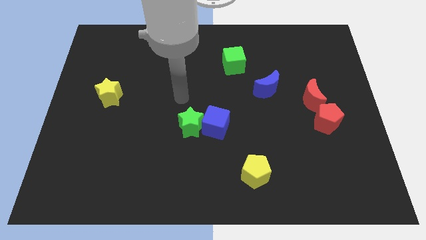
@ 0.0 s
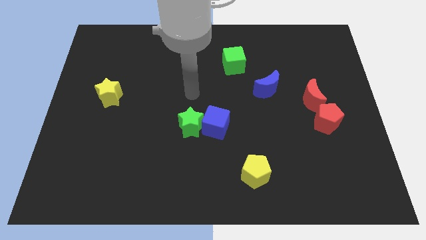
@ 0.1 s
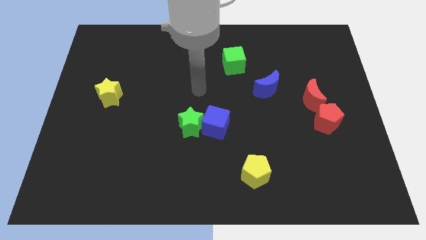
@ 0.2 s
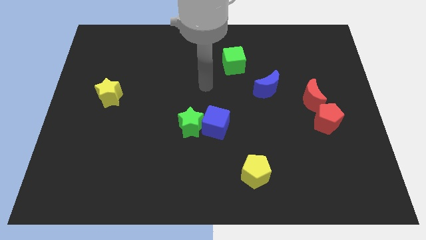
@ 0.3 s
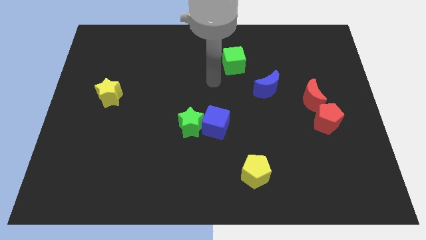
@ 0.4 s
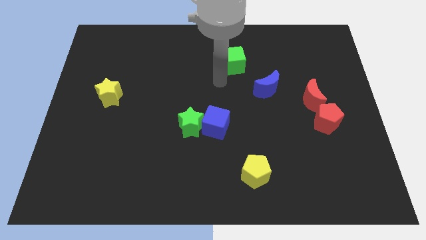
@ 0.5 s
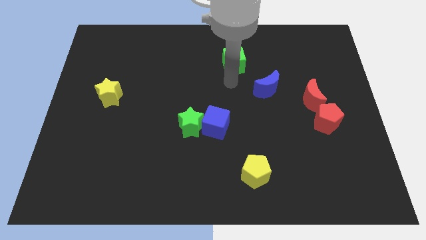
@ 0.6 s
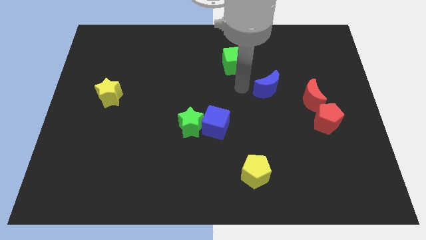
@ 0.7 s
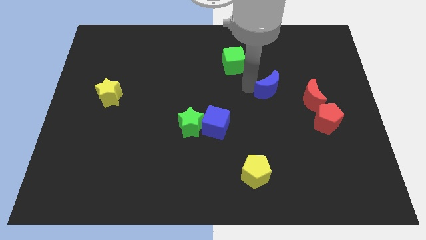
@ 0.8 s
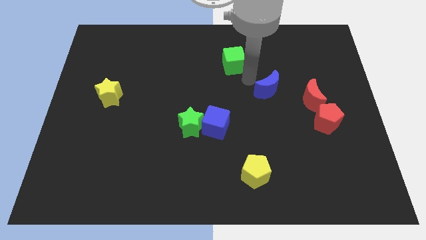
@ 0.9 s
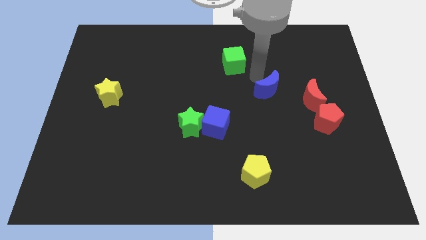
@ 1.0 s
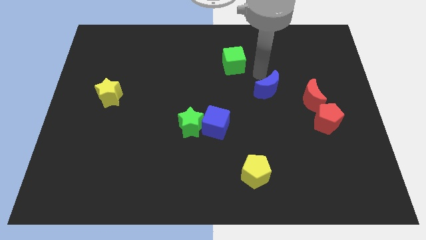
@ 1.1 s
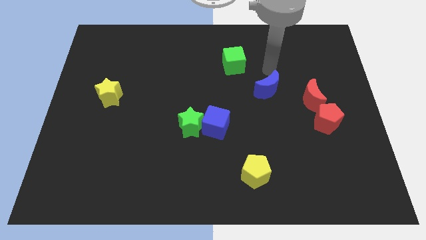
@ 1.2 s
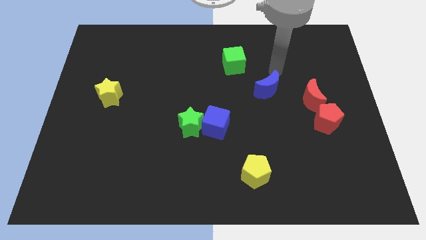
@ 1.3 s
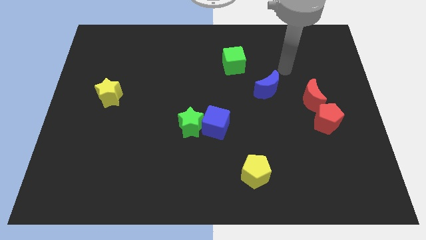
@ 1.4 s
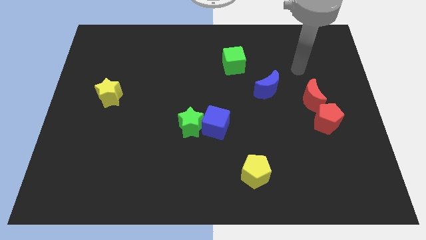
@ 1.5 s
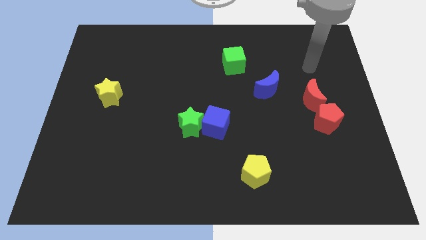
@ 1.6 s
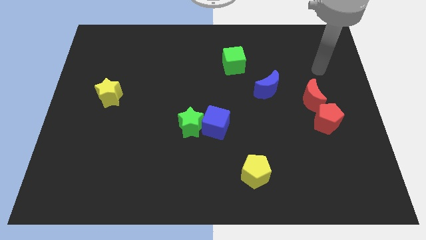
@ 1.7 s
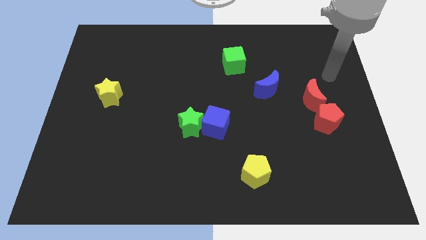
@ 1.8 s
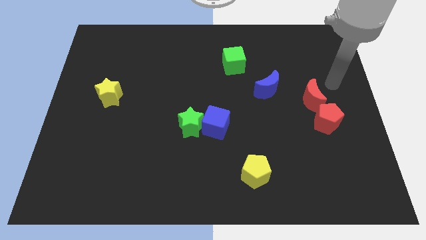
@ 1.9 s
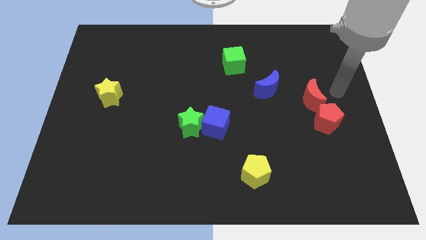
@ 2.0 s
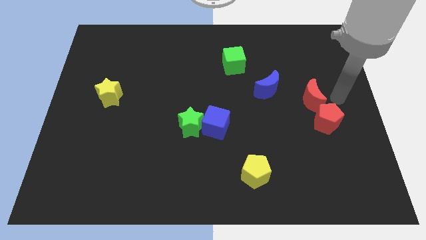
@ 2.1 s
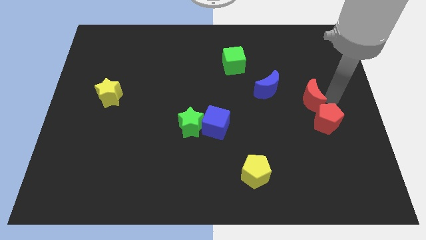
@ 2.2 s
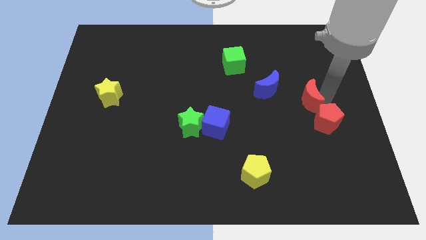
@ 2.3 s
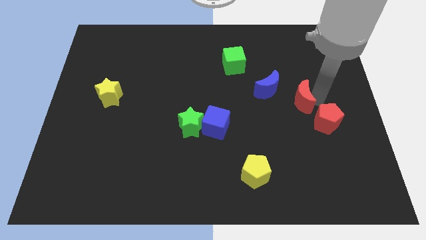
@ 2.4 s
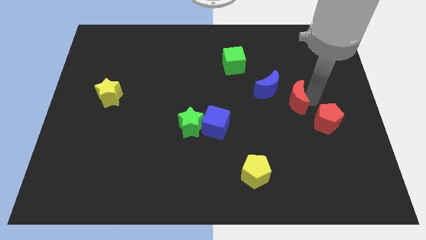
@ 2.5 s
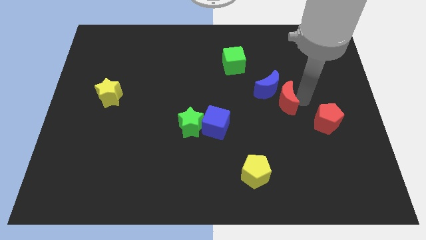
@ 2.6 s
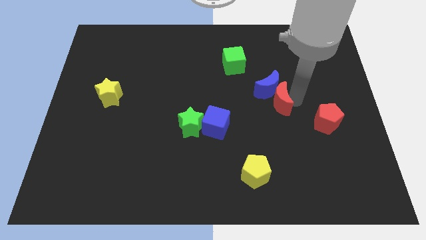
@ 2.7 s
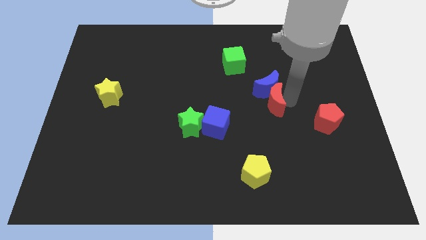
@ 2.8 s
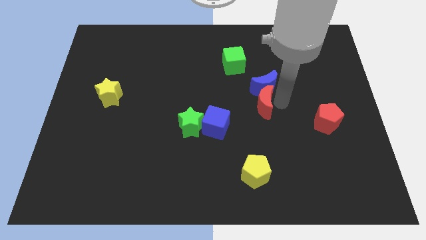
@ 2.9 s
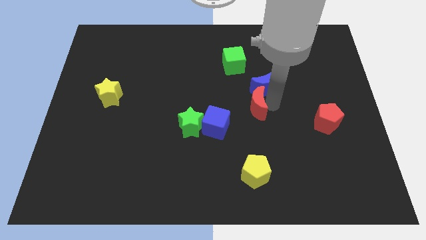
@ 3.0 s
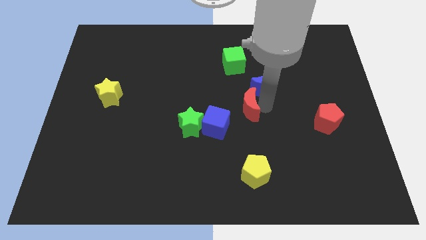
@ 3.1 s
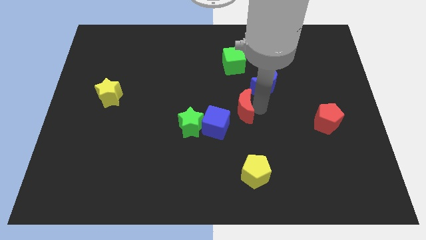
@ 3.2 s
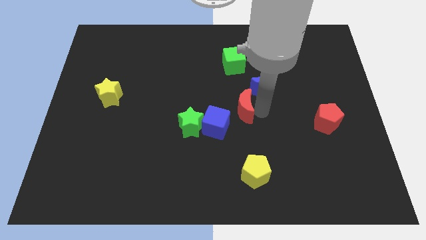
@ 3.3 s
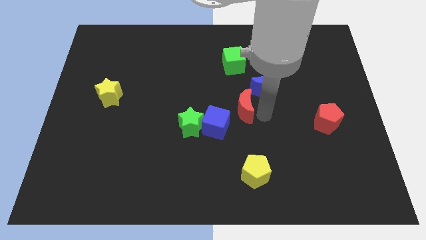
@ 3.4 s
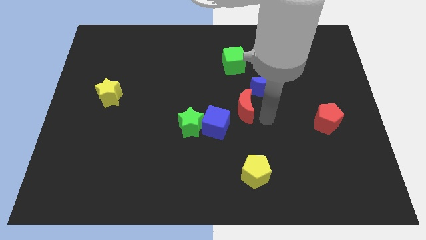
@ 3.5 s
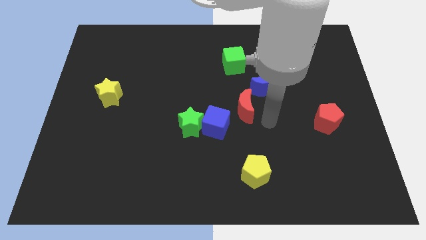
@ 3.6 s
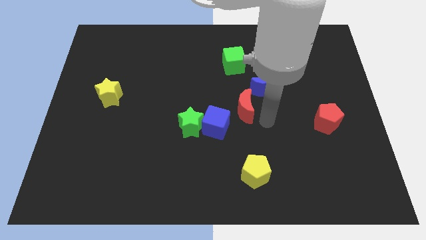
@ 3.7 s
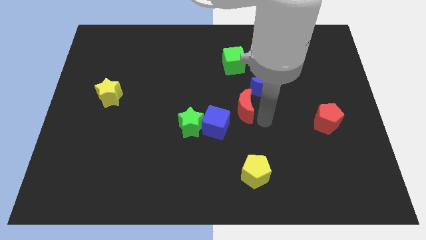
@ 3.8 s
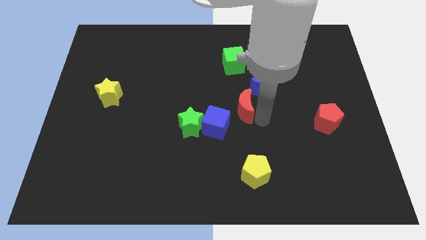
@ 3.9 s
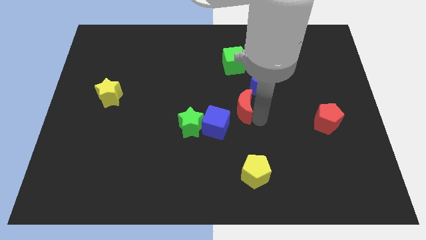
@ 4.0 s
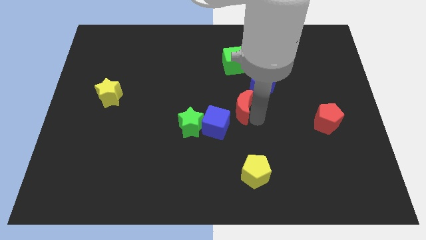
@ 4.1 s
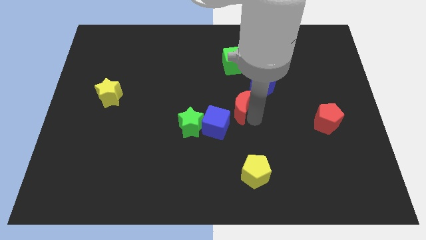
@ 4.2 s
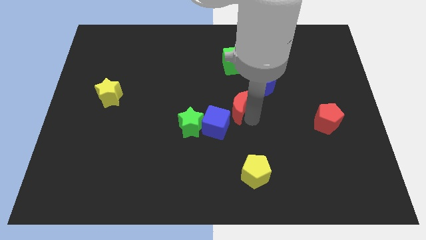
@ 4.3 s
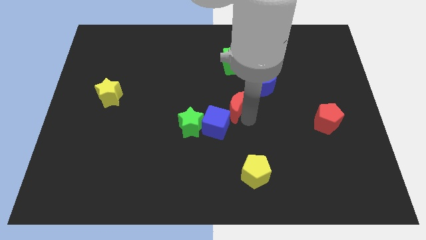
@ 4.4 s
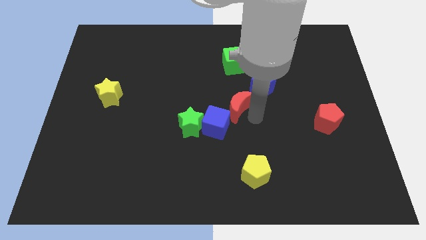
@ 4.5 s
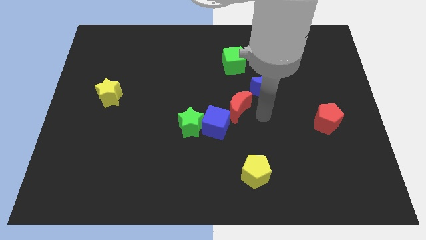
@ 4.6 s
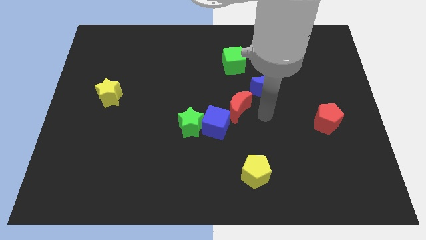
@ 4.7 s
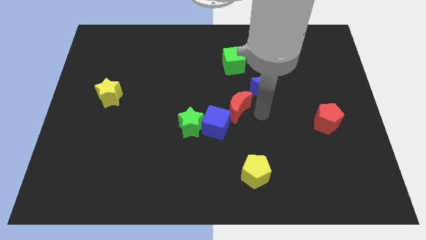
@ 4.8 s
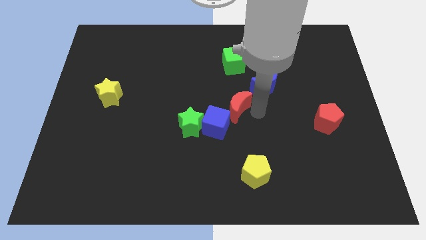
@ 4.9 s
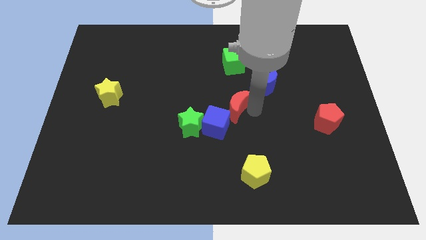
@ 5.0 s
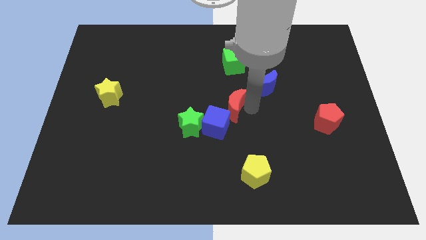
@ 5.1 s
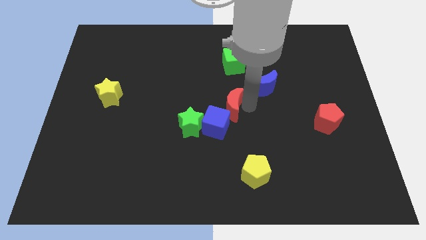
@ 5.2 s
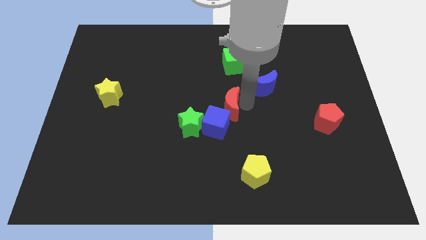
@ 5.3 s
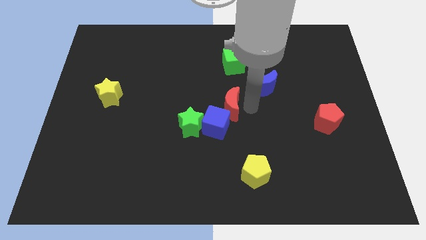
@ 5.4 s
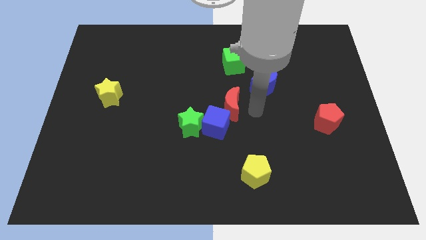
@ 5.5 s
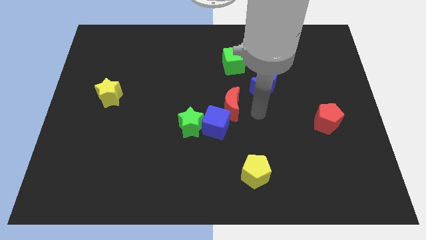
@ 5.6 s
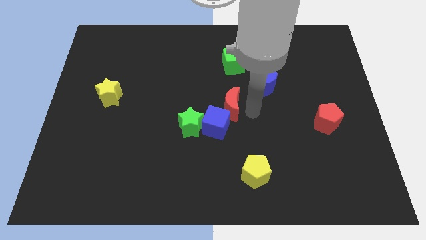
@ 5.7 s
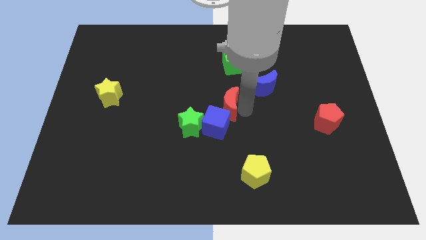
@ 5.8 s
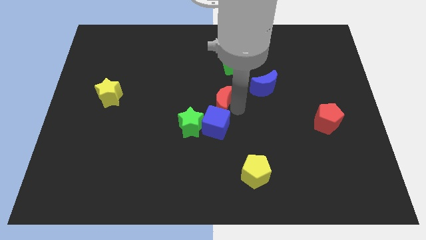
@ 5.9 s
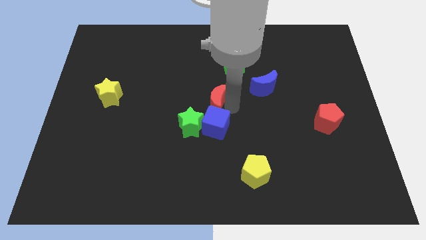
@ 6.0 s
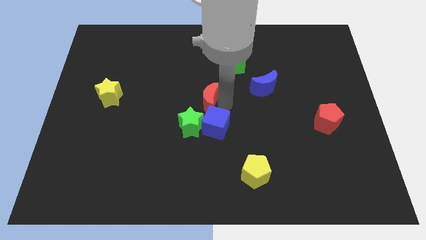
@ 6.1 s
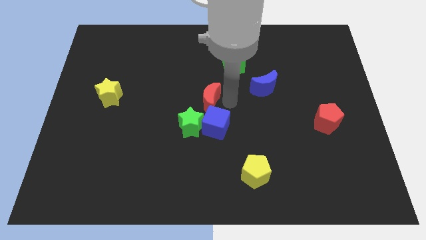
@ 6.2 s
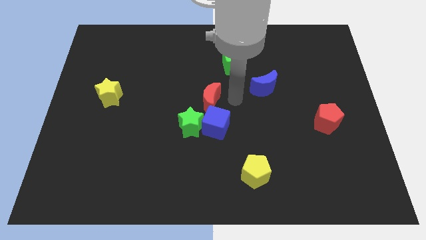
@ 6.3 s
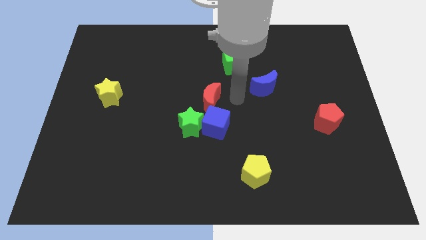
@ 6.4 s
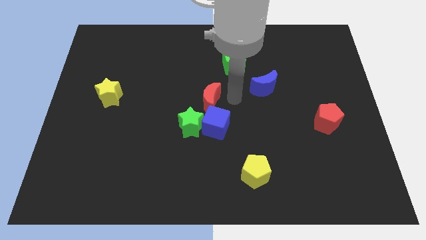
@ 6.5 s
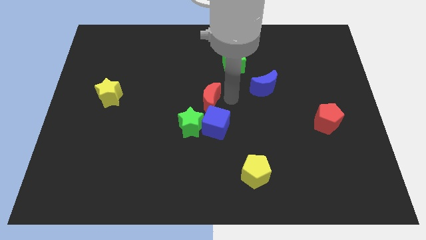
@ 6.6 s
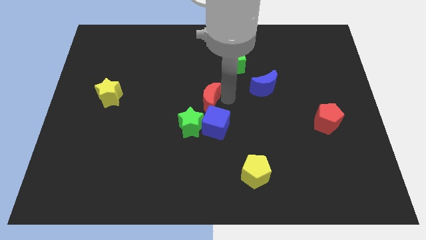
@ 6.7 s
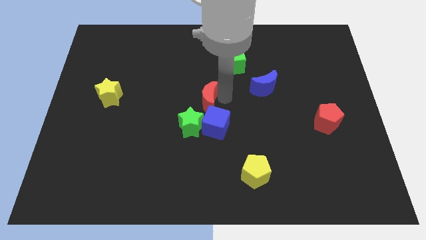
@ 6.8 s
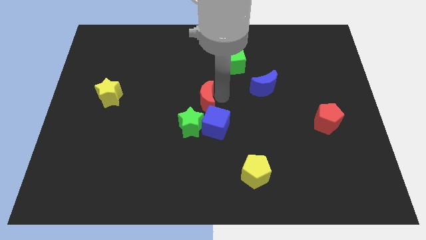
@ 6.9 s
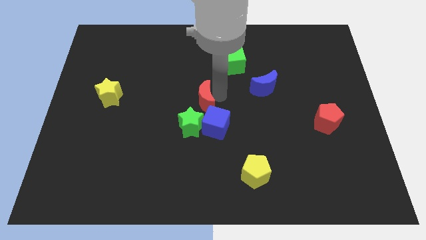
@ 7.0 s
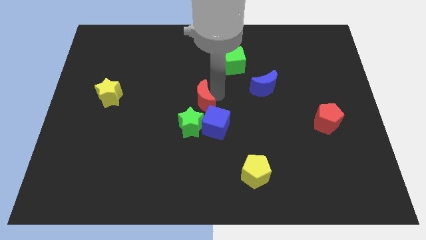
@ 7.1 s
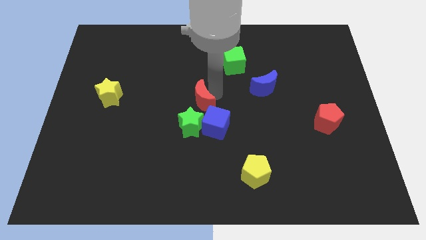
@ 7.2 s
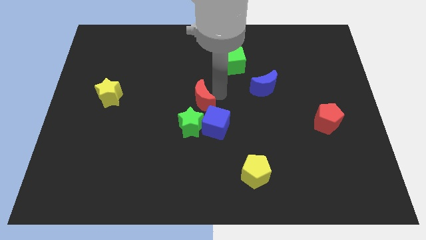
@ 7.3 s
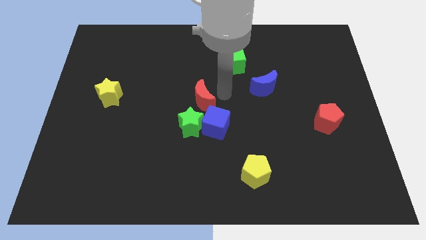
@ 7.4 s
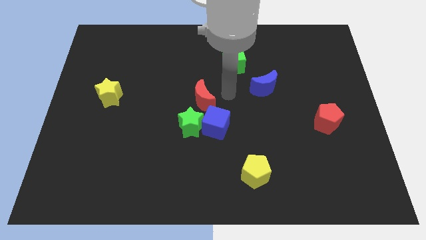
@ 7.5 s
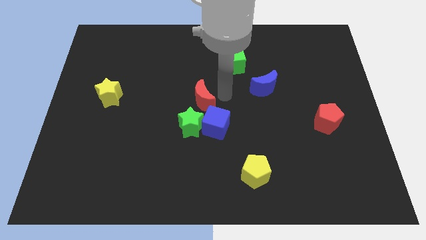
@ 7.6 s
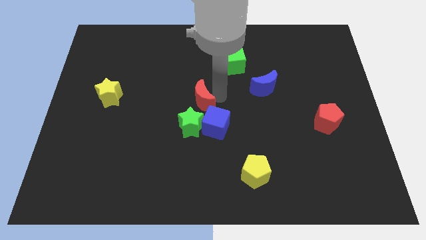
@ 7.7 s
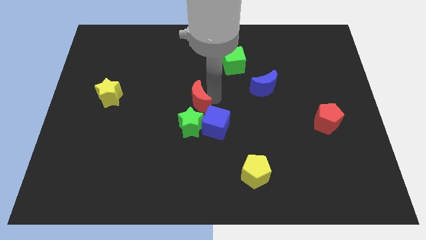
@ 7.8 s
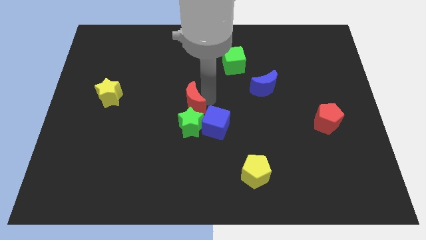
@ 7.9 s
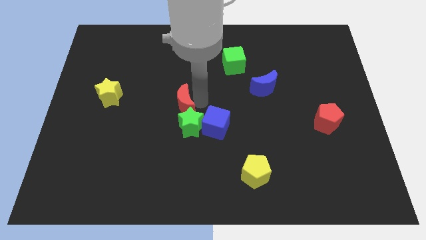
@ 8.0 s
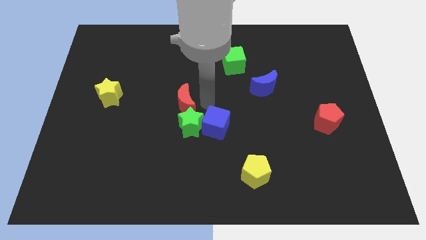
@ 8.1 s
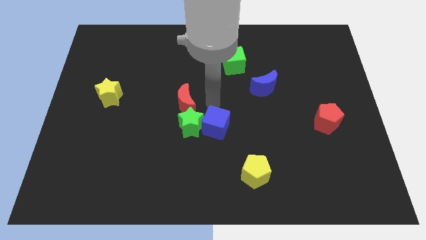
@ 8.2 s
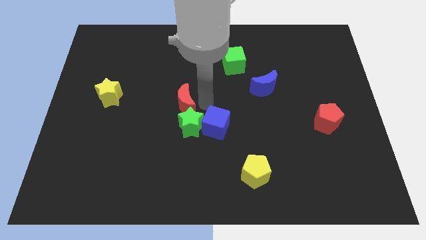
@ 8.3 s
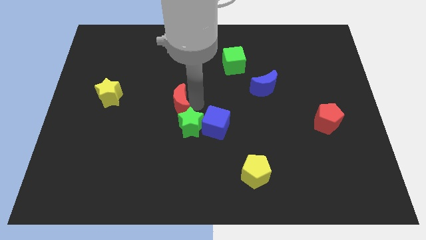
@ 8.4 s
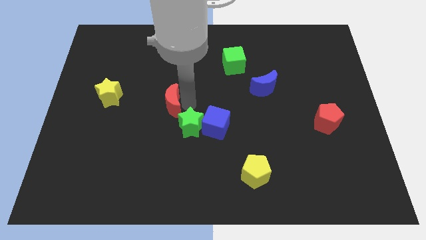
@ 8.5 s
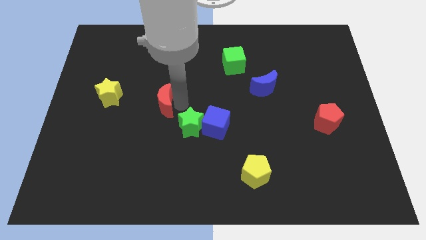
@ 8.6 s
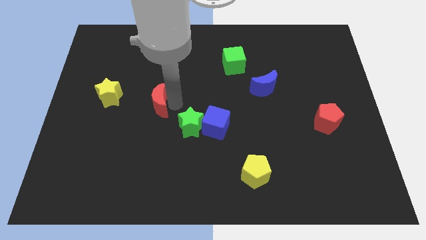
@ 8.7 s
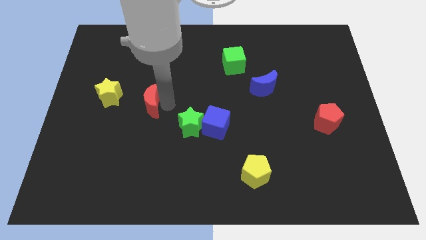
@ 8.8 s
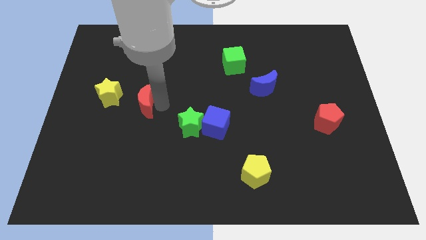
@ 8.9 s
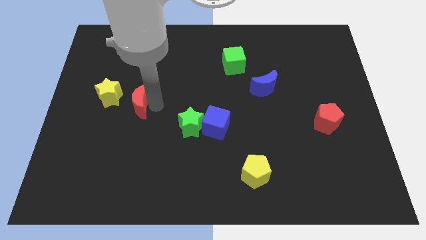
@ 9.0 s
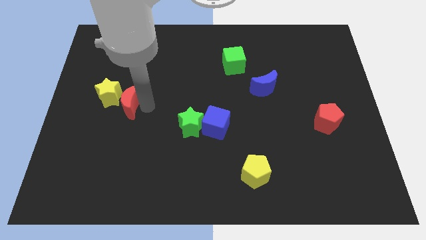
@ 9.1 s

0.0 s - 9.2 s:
move the red moon to the yellow star
